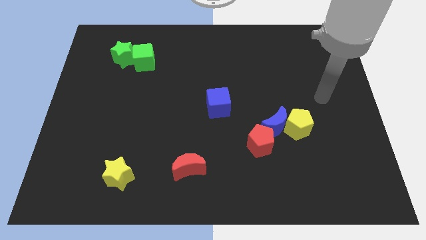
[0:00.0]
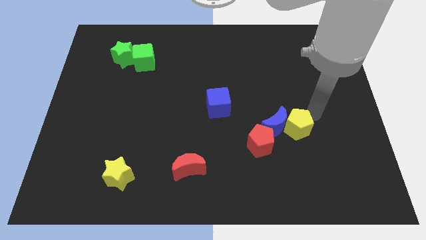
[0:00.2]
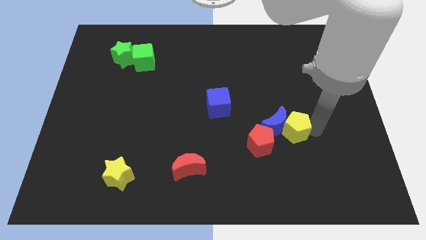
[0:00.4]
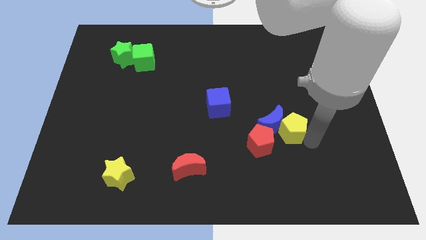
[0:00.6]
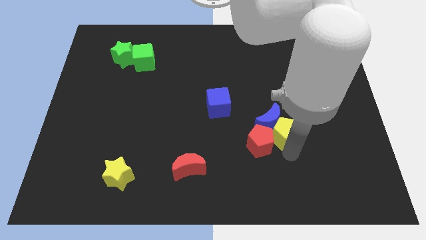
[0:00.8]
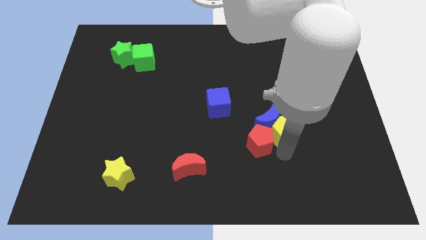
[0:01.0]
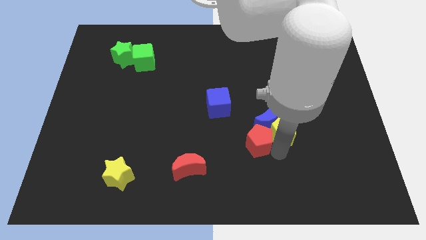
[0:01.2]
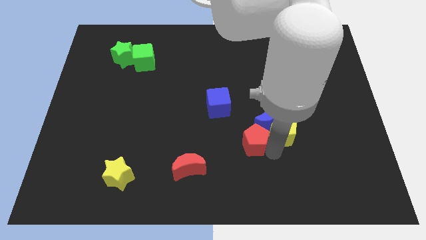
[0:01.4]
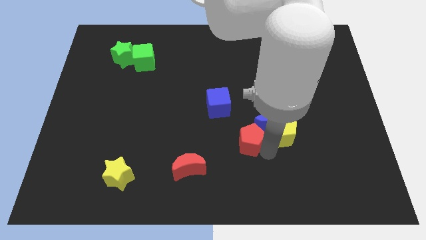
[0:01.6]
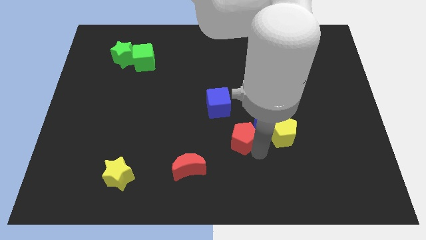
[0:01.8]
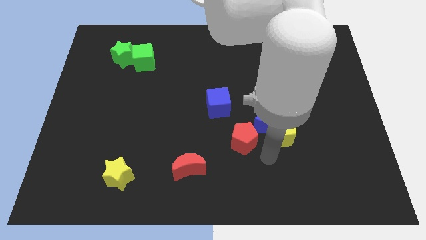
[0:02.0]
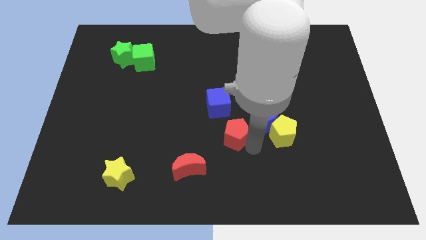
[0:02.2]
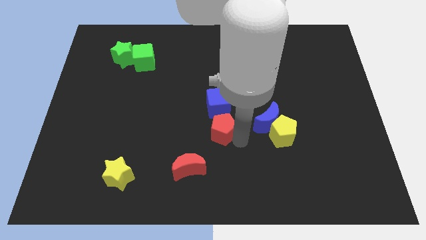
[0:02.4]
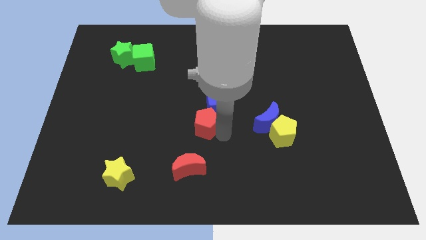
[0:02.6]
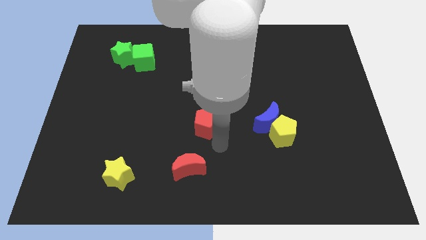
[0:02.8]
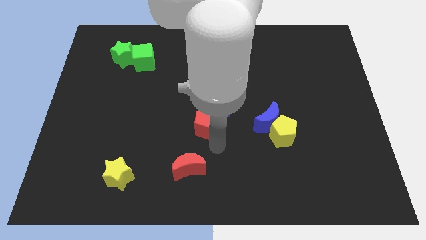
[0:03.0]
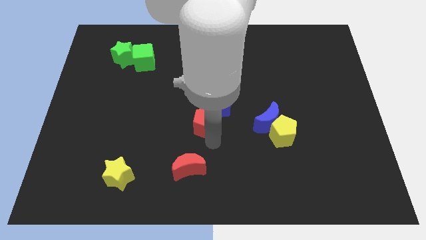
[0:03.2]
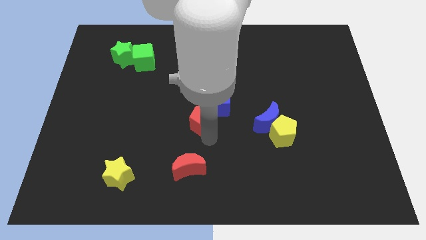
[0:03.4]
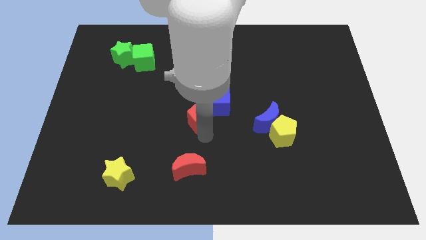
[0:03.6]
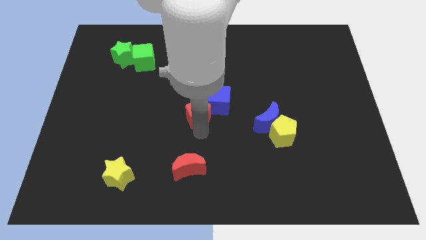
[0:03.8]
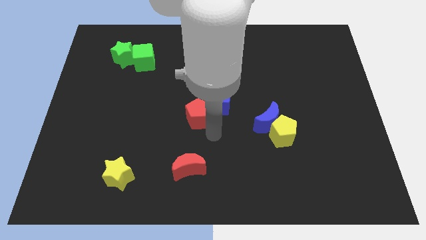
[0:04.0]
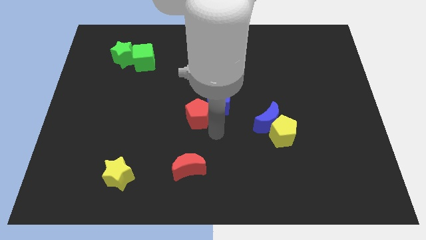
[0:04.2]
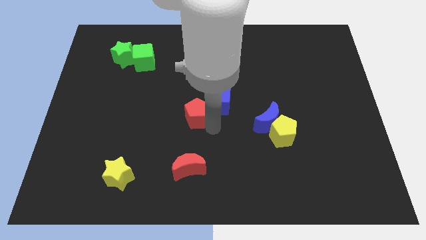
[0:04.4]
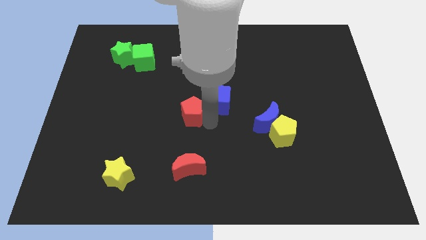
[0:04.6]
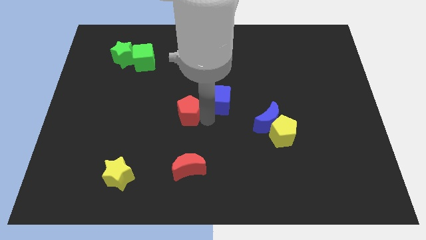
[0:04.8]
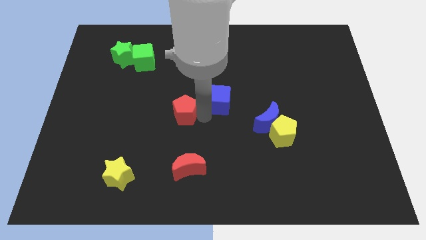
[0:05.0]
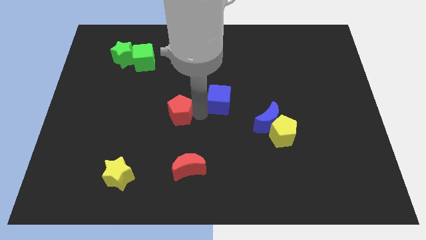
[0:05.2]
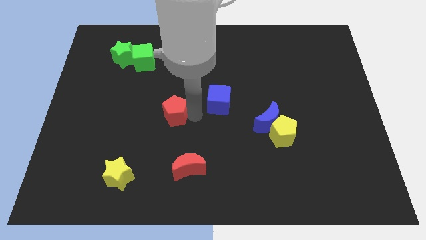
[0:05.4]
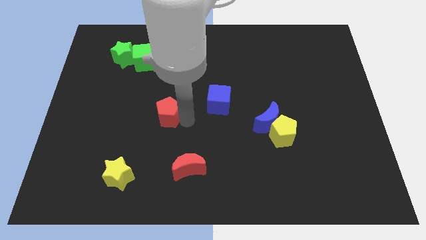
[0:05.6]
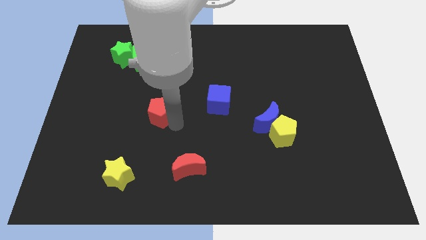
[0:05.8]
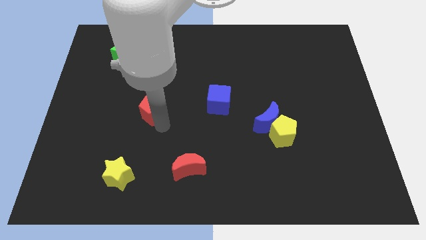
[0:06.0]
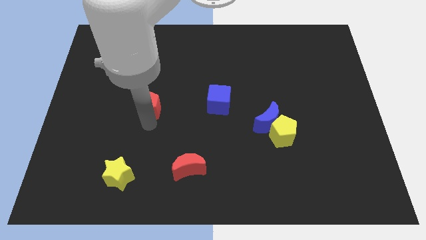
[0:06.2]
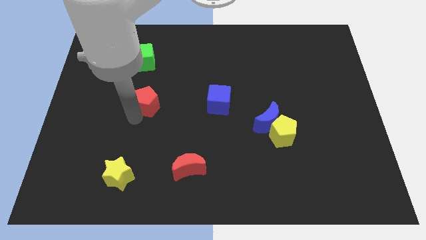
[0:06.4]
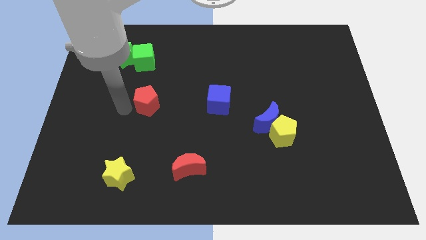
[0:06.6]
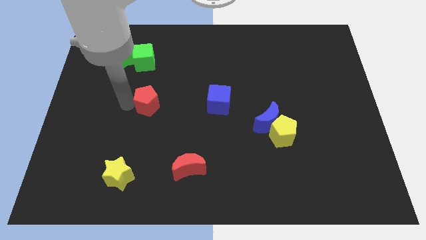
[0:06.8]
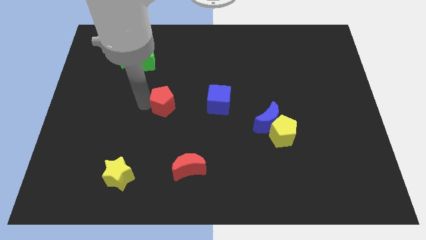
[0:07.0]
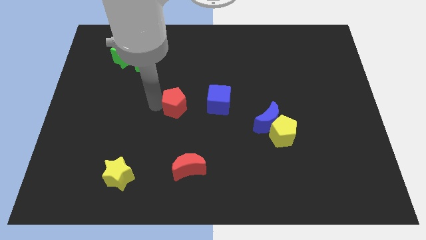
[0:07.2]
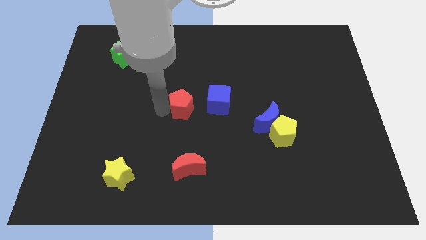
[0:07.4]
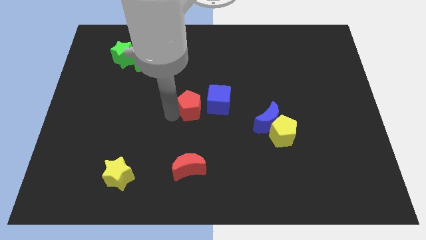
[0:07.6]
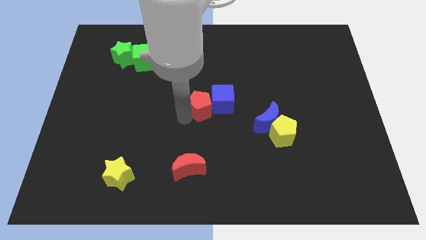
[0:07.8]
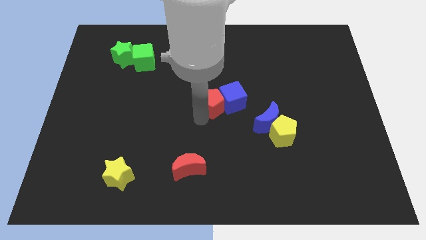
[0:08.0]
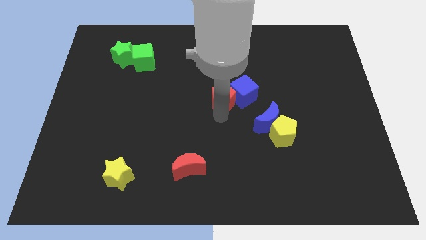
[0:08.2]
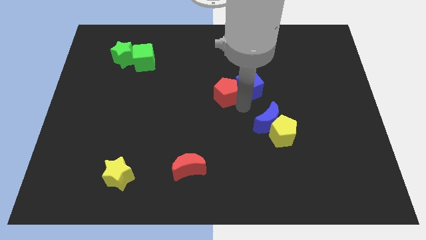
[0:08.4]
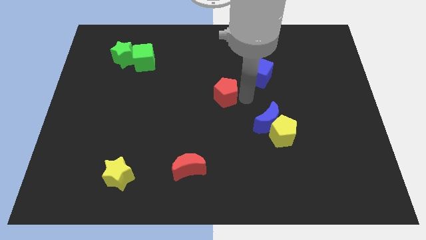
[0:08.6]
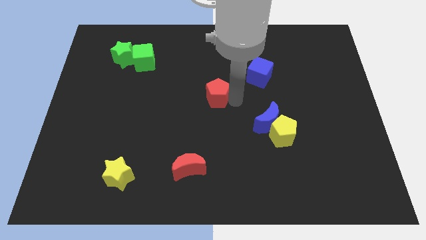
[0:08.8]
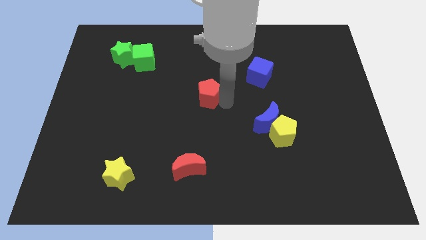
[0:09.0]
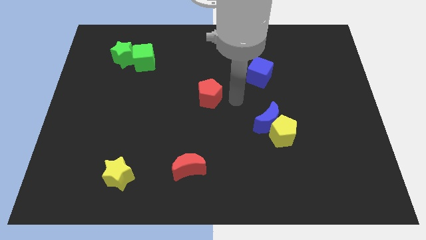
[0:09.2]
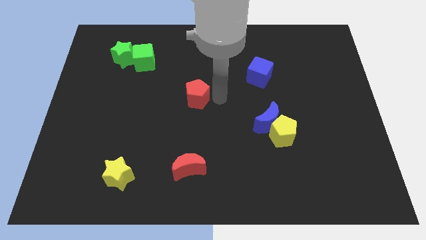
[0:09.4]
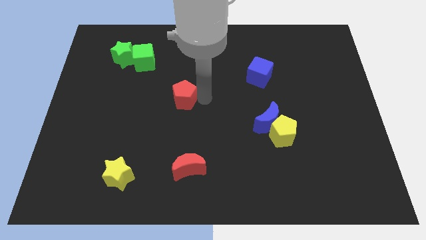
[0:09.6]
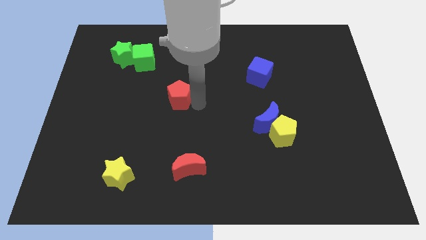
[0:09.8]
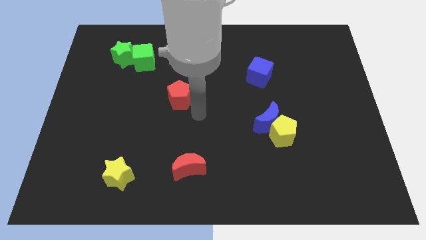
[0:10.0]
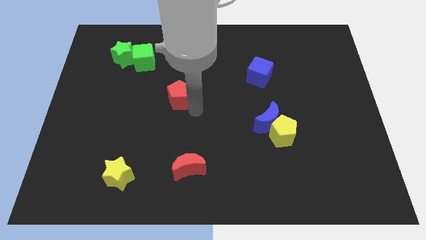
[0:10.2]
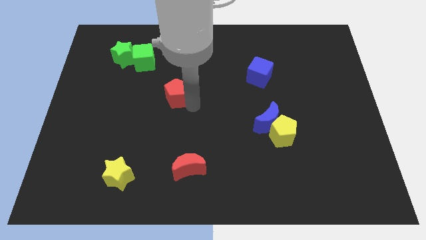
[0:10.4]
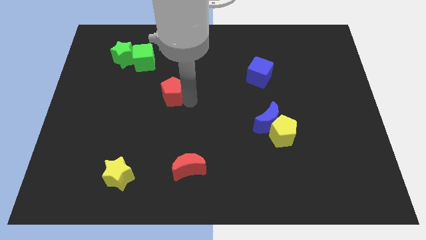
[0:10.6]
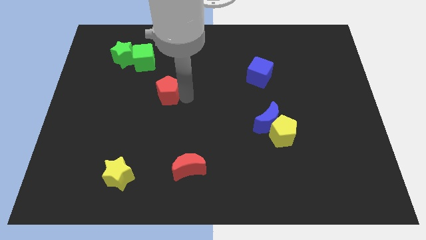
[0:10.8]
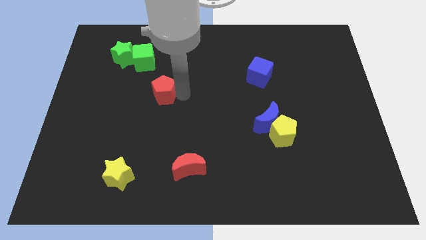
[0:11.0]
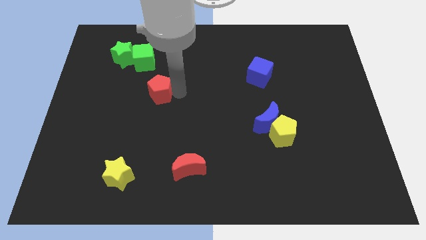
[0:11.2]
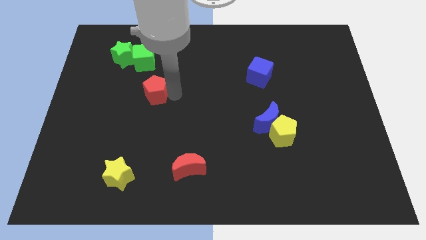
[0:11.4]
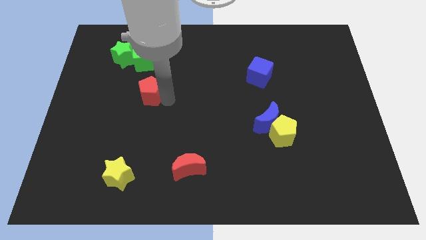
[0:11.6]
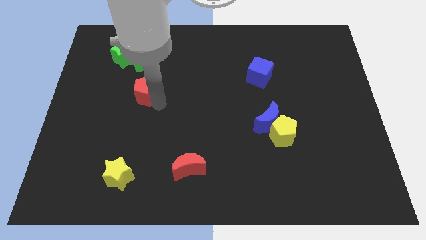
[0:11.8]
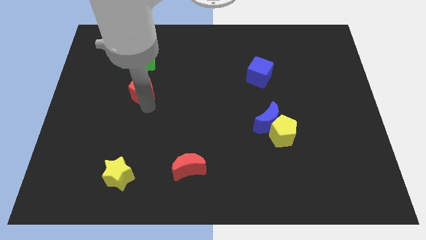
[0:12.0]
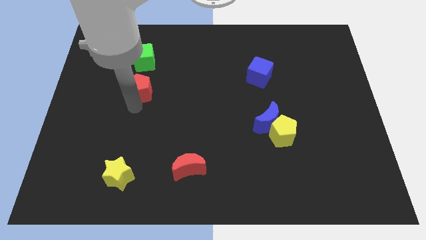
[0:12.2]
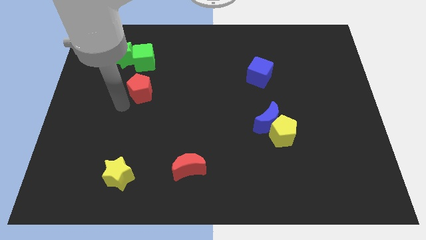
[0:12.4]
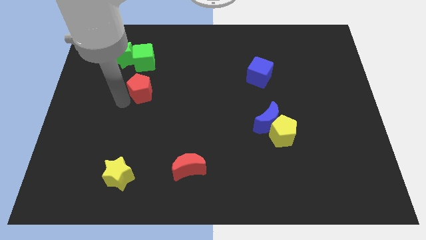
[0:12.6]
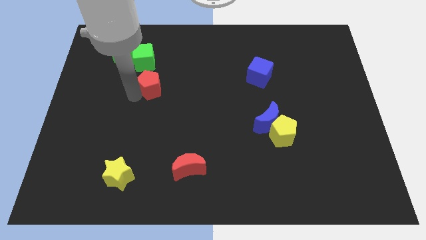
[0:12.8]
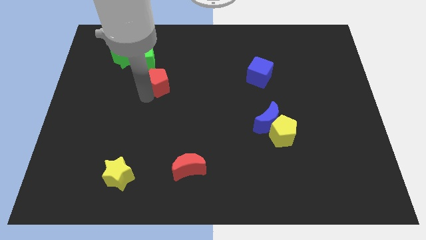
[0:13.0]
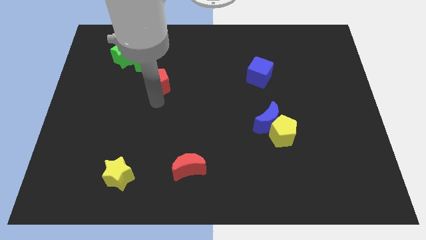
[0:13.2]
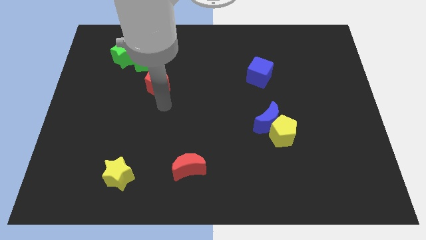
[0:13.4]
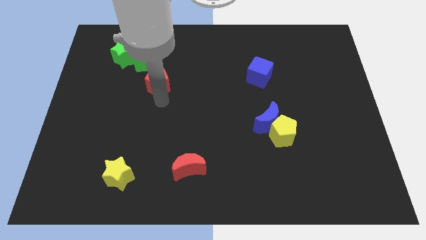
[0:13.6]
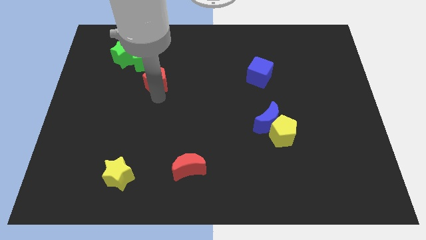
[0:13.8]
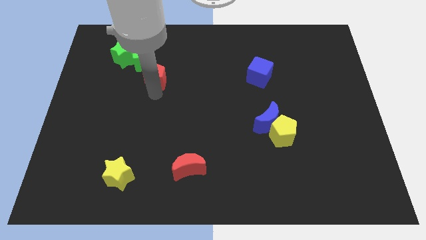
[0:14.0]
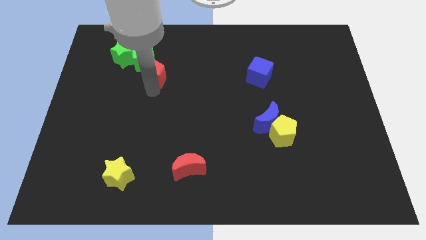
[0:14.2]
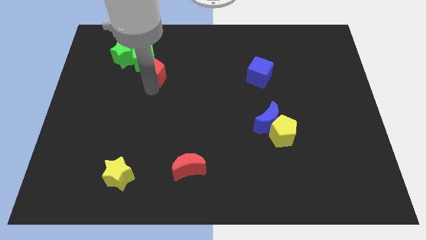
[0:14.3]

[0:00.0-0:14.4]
slide the red pentagon close to the green cube
